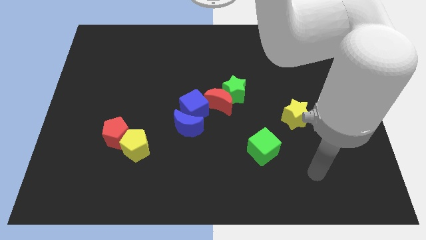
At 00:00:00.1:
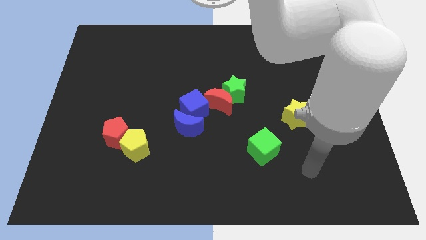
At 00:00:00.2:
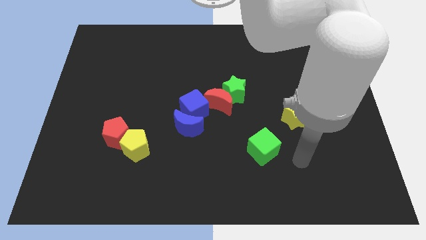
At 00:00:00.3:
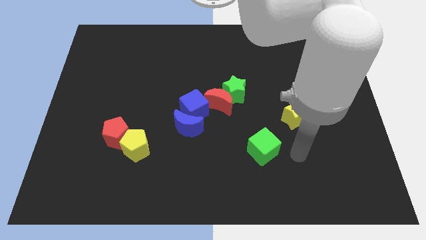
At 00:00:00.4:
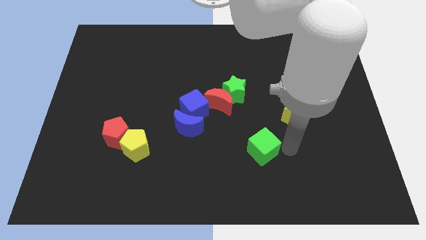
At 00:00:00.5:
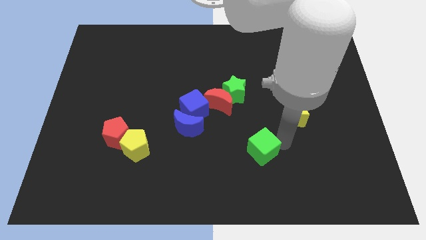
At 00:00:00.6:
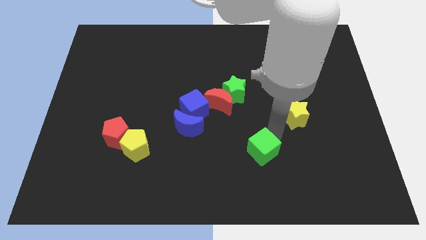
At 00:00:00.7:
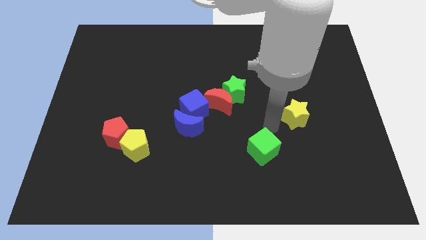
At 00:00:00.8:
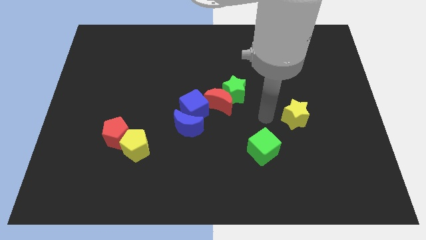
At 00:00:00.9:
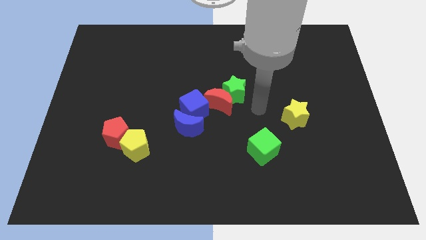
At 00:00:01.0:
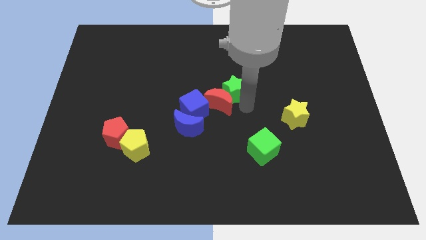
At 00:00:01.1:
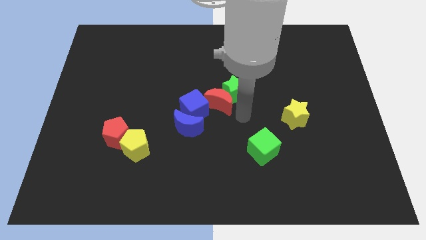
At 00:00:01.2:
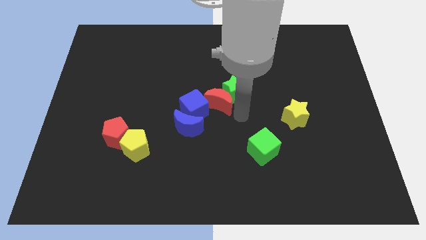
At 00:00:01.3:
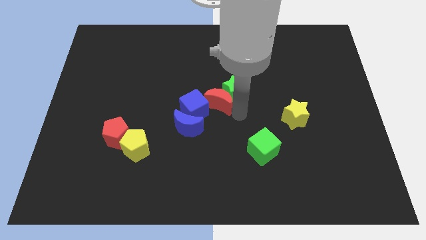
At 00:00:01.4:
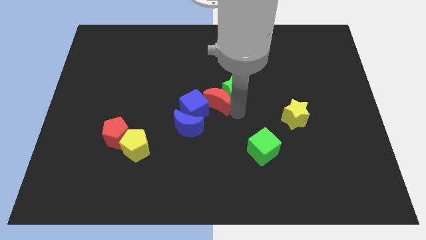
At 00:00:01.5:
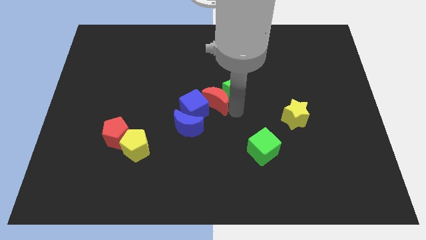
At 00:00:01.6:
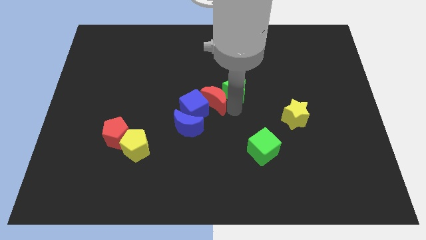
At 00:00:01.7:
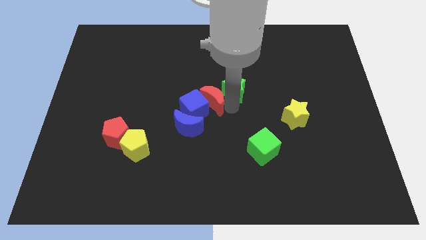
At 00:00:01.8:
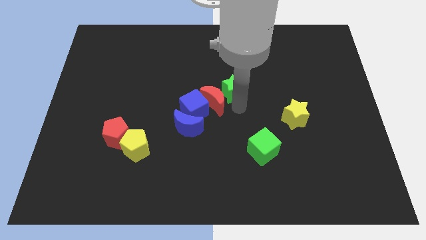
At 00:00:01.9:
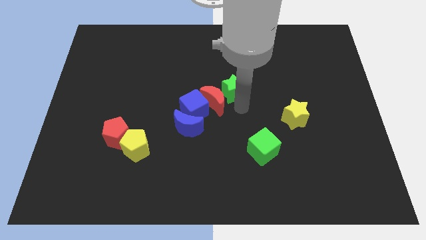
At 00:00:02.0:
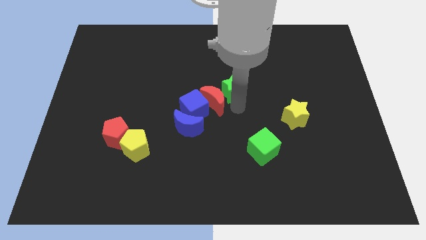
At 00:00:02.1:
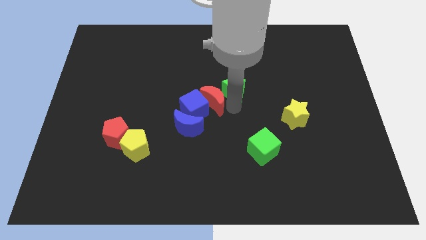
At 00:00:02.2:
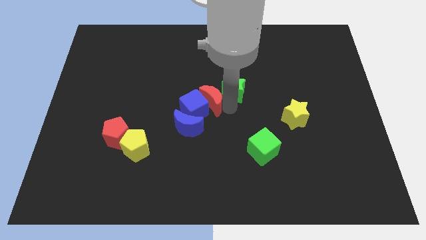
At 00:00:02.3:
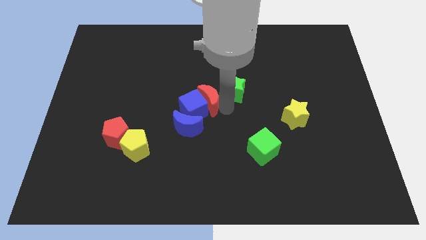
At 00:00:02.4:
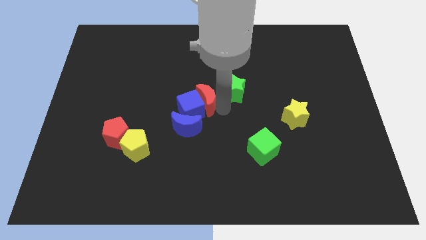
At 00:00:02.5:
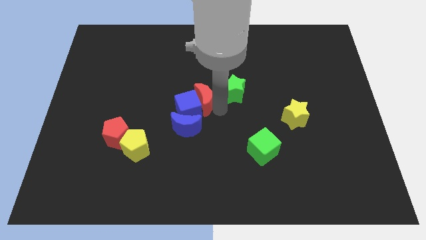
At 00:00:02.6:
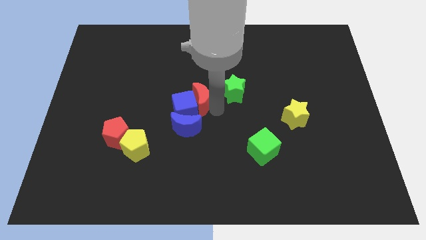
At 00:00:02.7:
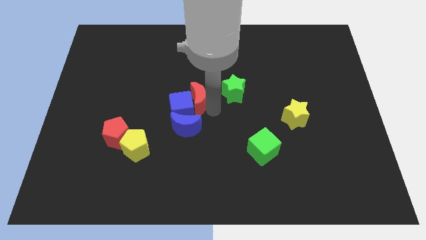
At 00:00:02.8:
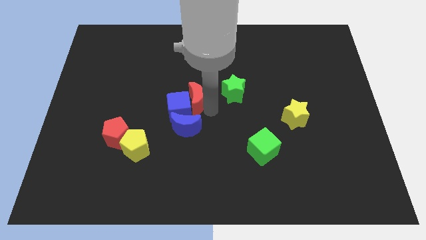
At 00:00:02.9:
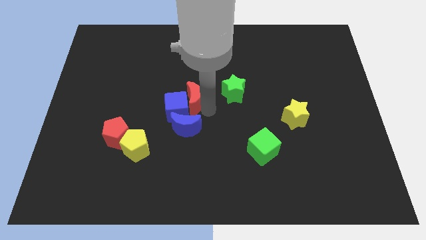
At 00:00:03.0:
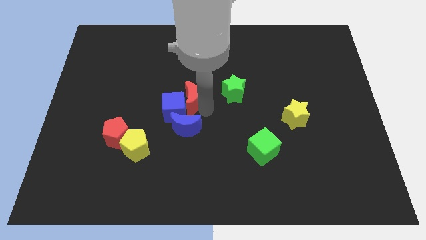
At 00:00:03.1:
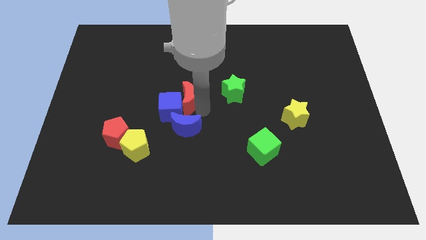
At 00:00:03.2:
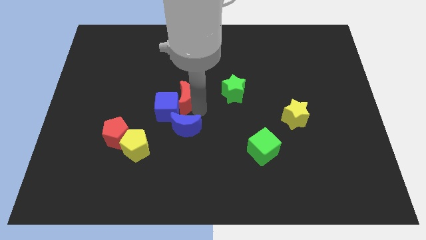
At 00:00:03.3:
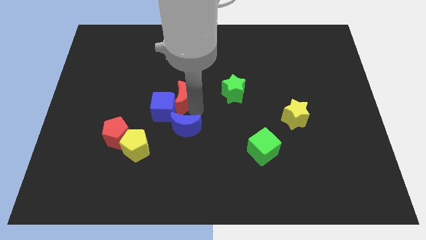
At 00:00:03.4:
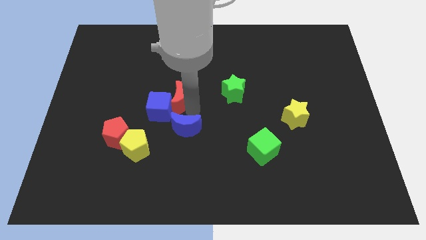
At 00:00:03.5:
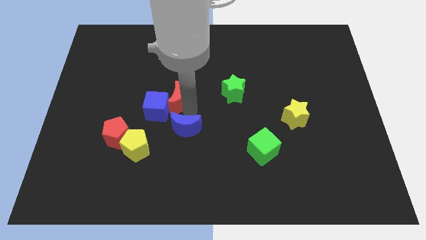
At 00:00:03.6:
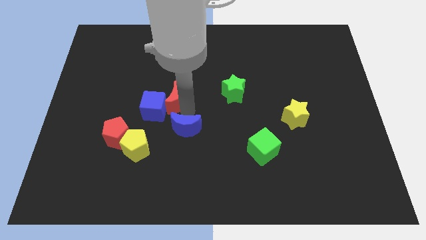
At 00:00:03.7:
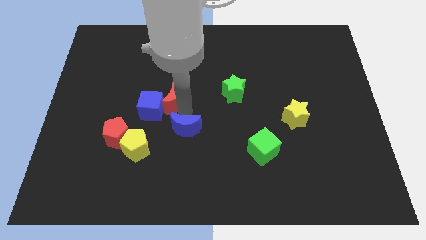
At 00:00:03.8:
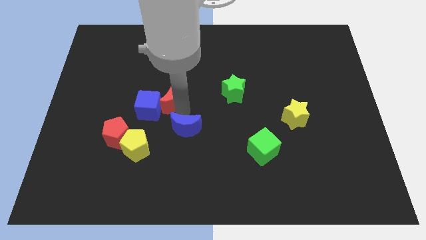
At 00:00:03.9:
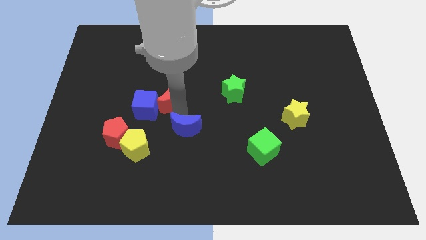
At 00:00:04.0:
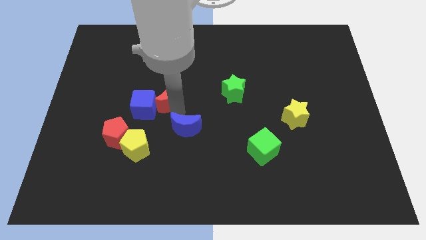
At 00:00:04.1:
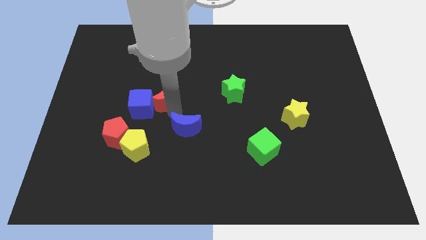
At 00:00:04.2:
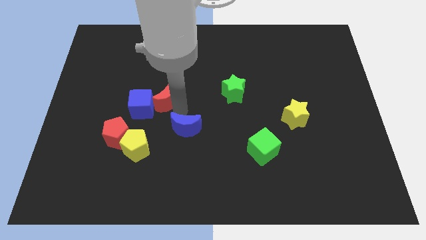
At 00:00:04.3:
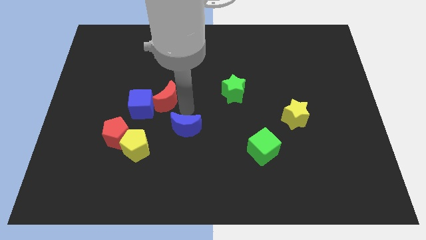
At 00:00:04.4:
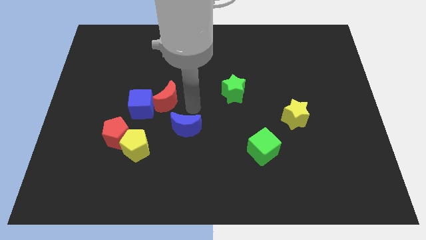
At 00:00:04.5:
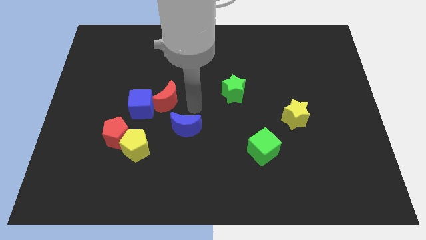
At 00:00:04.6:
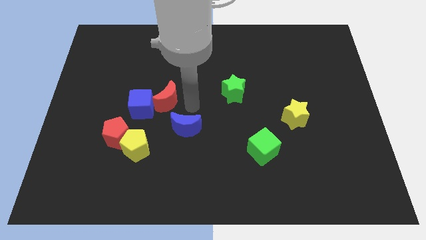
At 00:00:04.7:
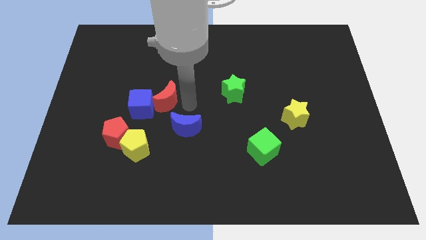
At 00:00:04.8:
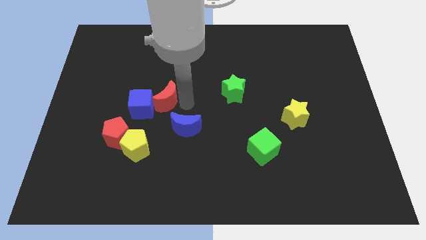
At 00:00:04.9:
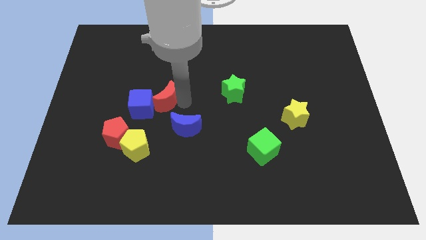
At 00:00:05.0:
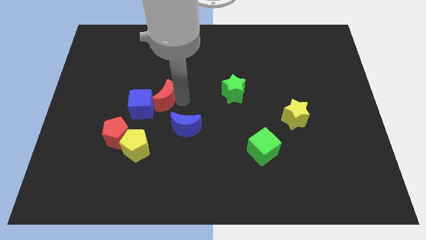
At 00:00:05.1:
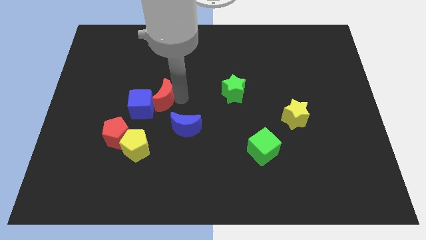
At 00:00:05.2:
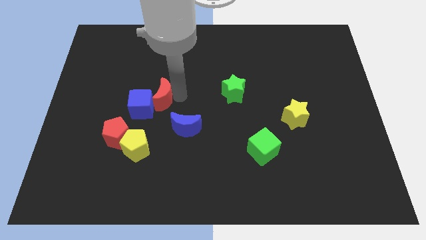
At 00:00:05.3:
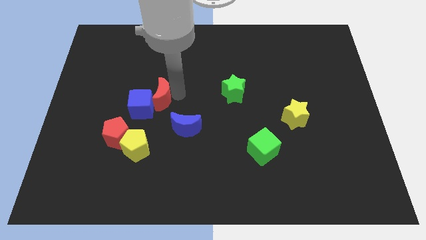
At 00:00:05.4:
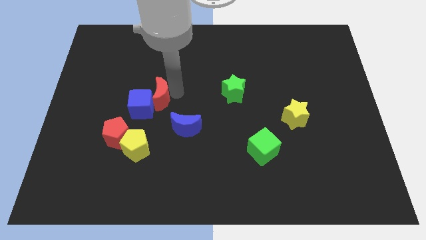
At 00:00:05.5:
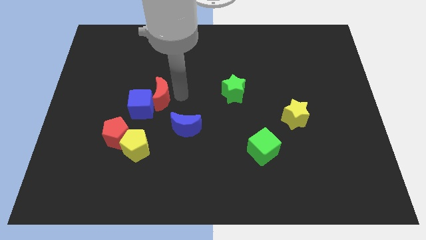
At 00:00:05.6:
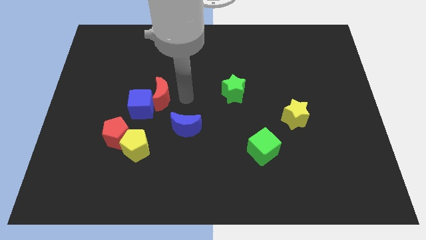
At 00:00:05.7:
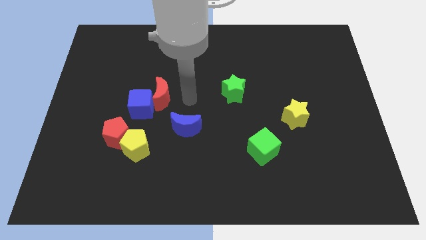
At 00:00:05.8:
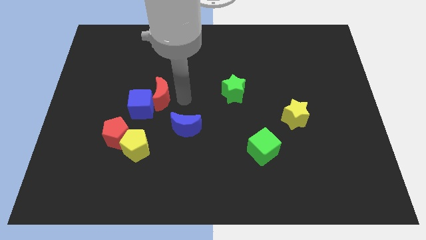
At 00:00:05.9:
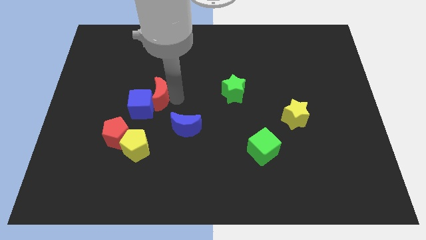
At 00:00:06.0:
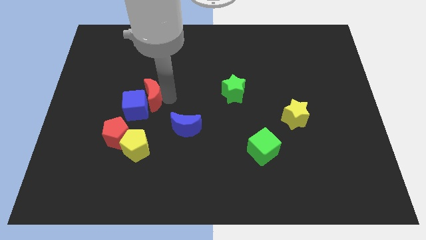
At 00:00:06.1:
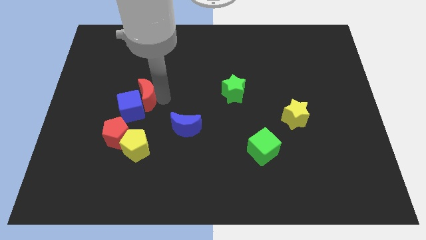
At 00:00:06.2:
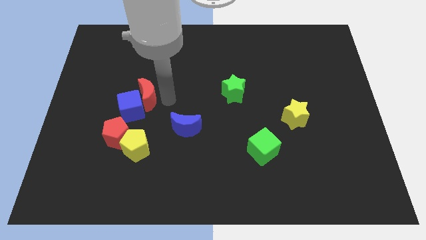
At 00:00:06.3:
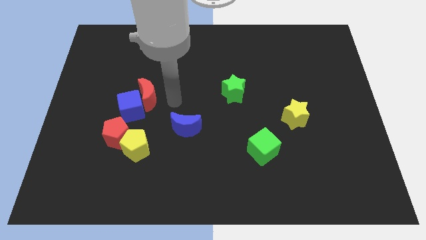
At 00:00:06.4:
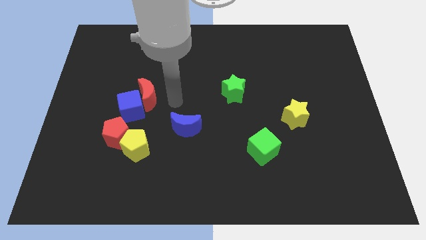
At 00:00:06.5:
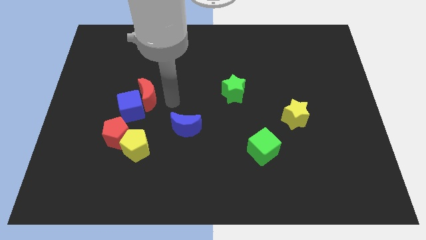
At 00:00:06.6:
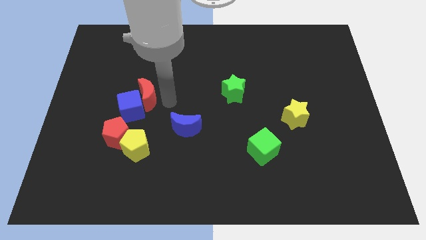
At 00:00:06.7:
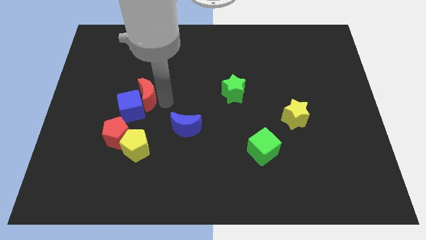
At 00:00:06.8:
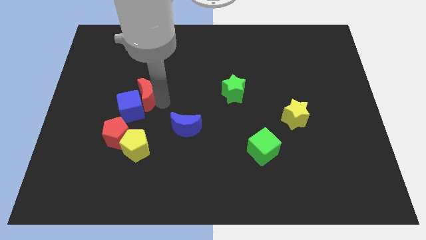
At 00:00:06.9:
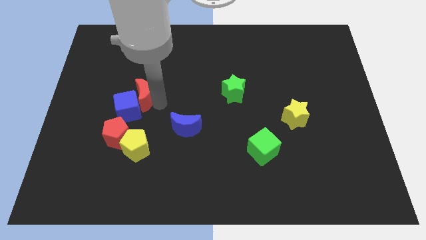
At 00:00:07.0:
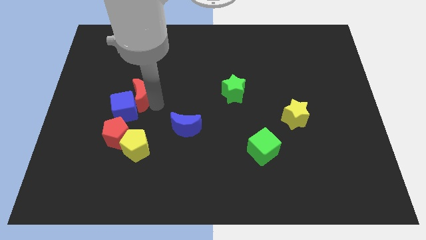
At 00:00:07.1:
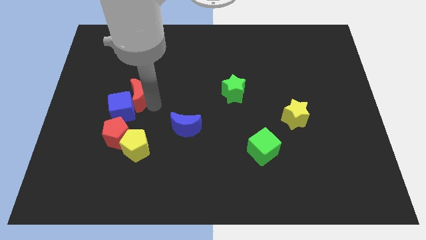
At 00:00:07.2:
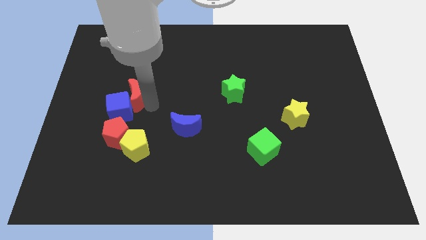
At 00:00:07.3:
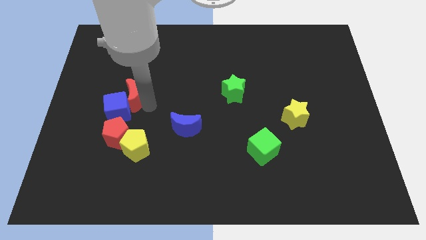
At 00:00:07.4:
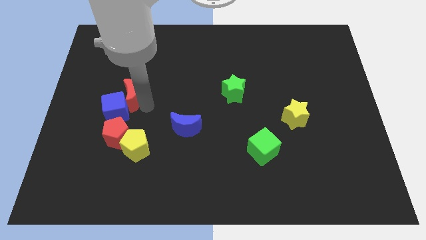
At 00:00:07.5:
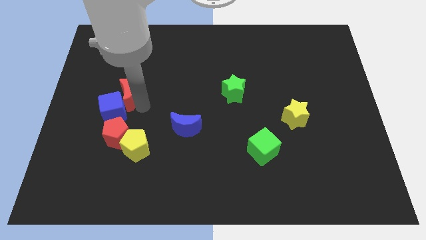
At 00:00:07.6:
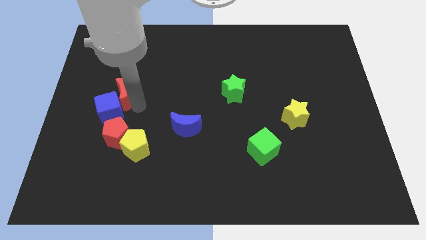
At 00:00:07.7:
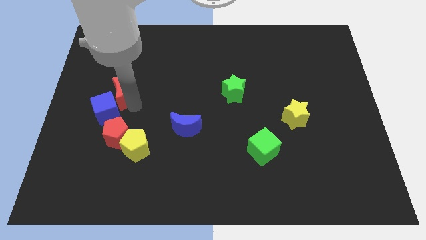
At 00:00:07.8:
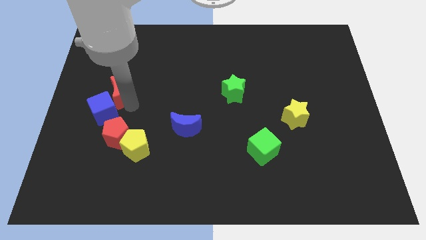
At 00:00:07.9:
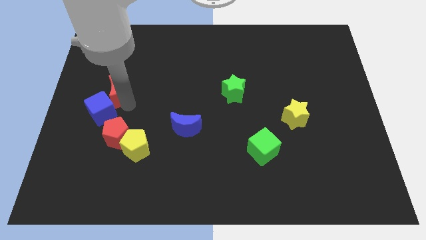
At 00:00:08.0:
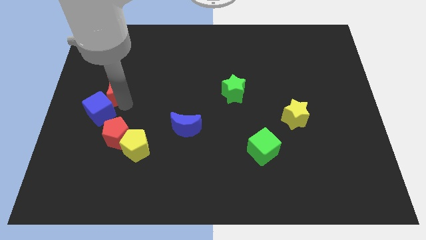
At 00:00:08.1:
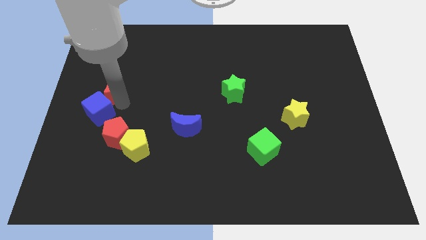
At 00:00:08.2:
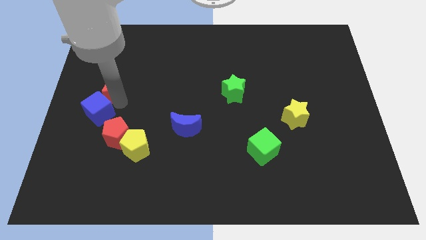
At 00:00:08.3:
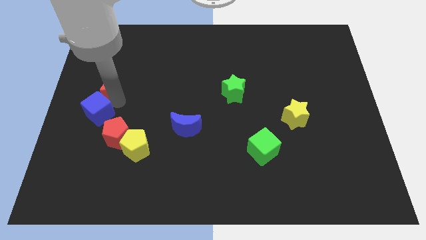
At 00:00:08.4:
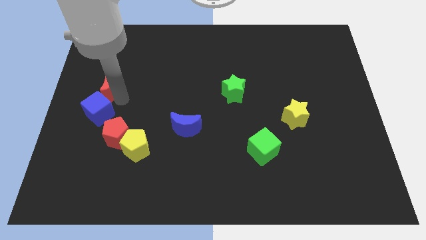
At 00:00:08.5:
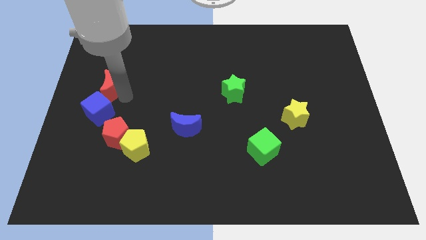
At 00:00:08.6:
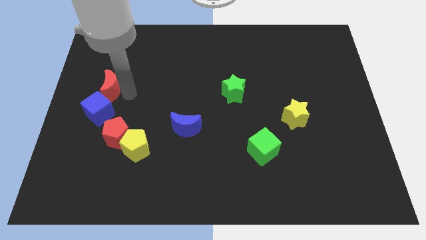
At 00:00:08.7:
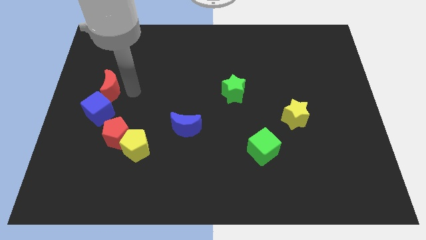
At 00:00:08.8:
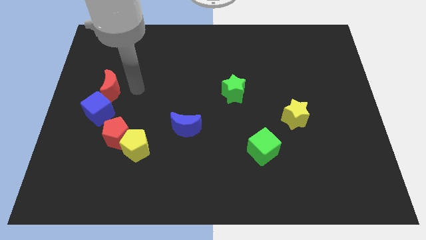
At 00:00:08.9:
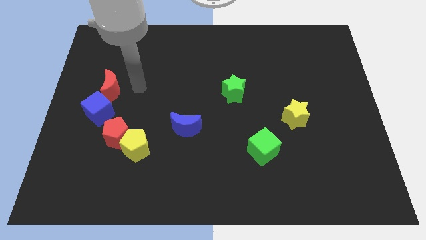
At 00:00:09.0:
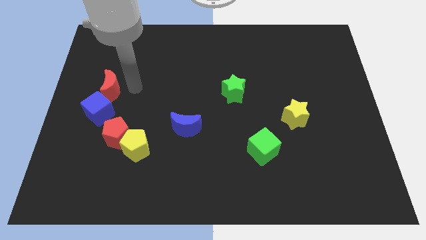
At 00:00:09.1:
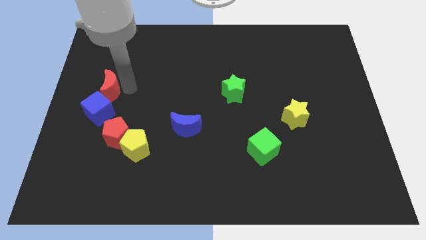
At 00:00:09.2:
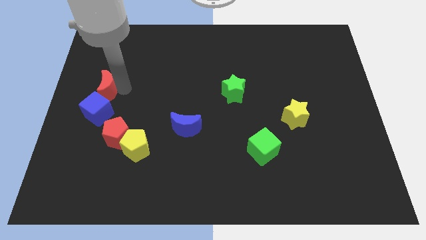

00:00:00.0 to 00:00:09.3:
slide the red moon to the center left
